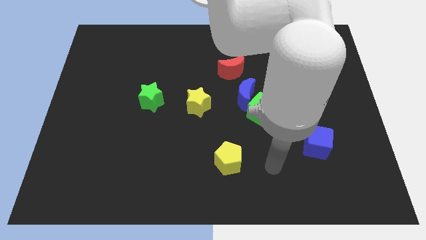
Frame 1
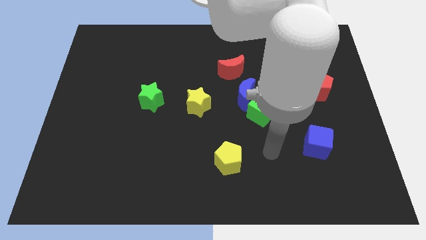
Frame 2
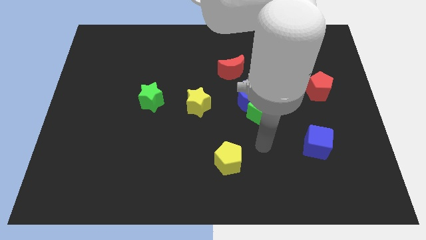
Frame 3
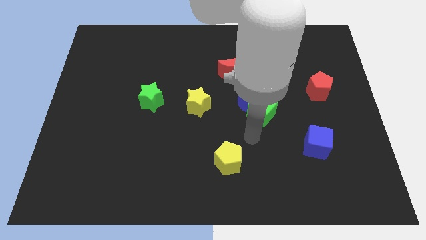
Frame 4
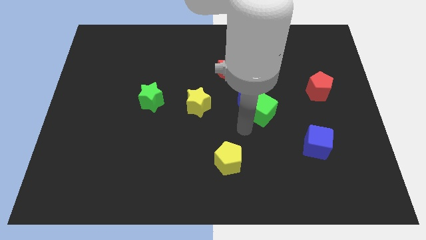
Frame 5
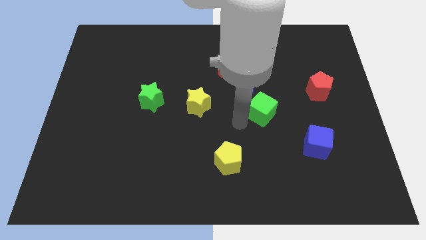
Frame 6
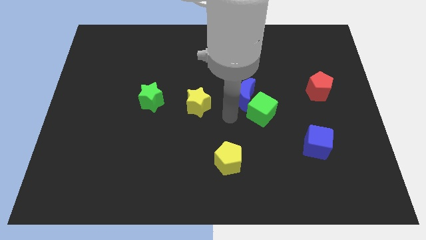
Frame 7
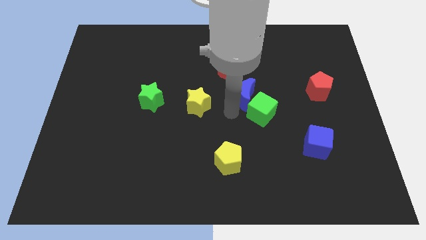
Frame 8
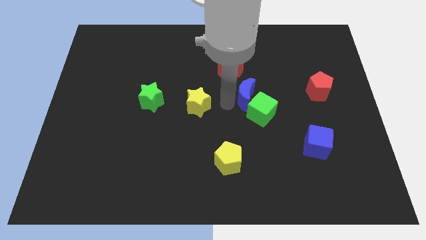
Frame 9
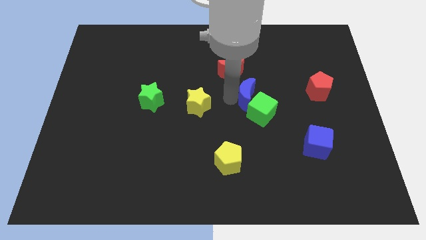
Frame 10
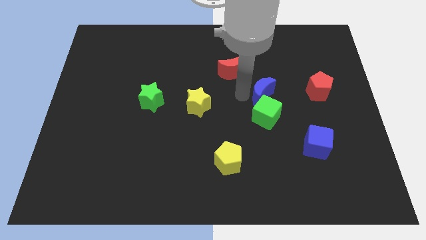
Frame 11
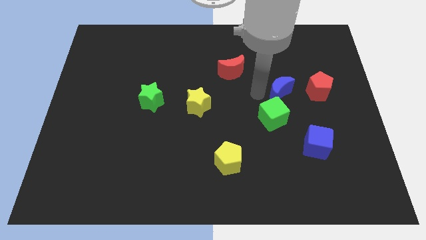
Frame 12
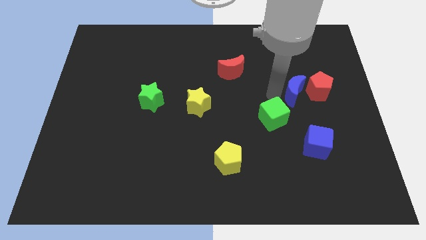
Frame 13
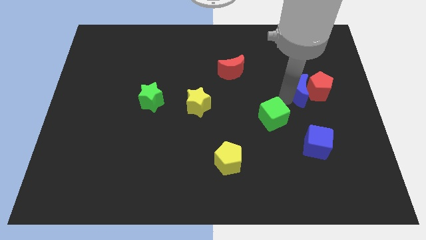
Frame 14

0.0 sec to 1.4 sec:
separate the green cube from the blue moon

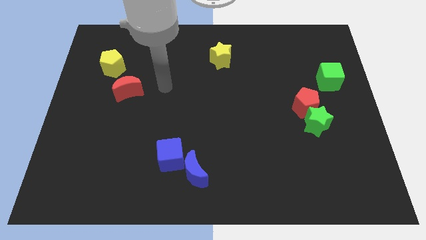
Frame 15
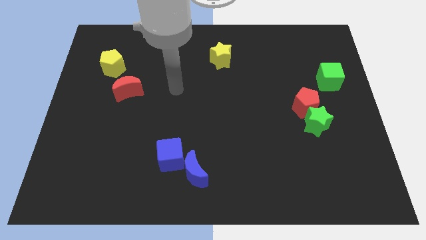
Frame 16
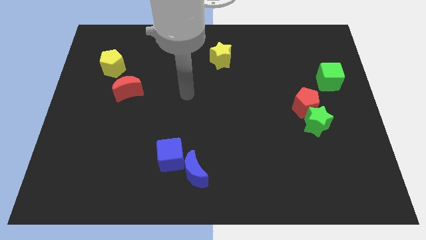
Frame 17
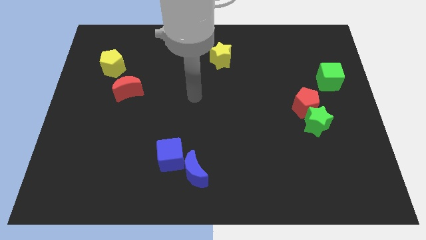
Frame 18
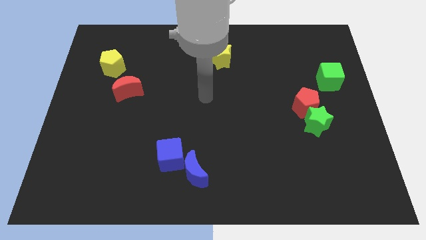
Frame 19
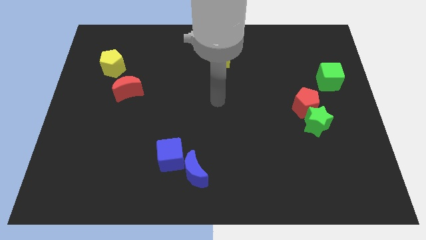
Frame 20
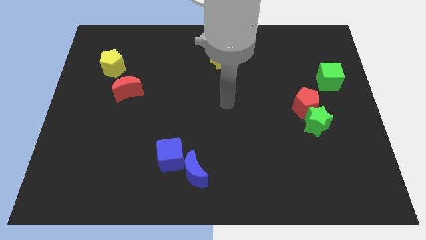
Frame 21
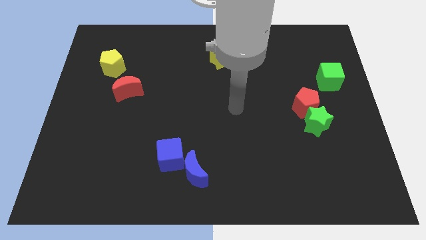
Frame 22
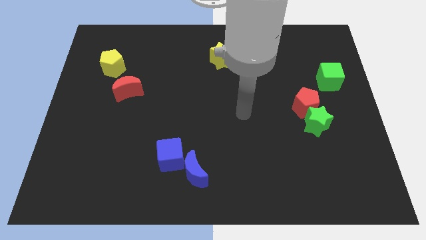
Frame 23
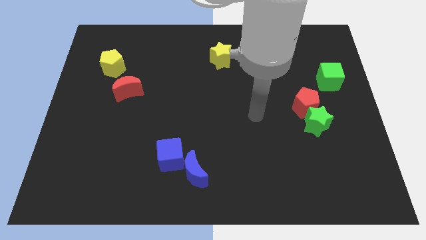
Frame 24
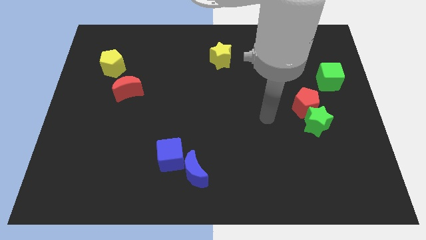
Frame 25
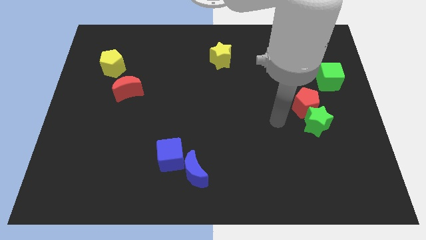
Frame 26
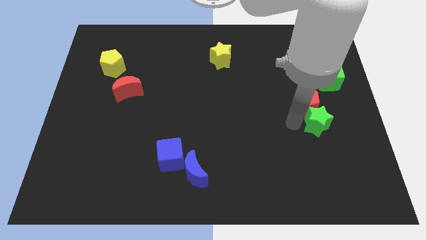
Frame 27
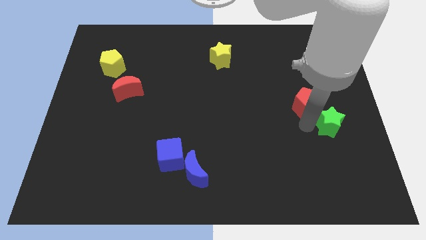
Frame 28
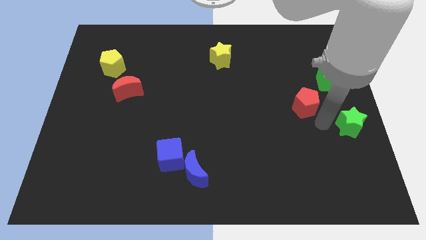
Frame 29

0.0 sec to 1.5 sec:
separate the red pentagon from the green star

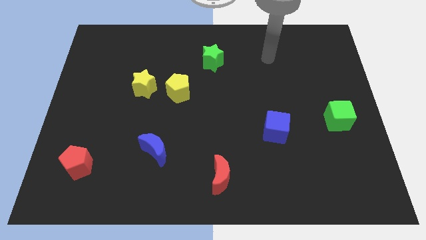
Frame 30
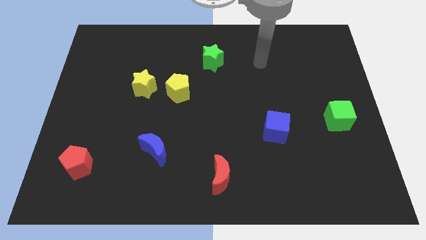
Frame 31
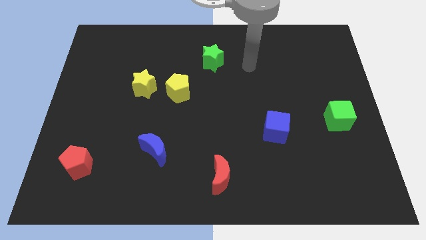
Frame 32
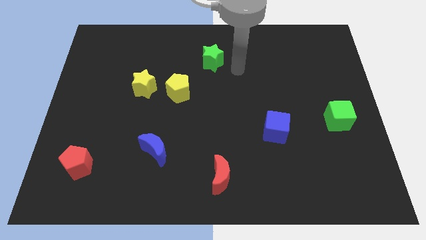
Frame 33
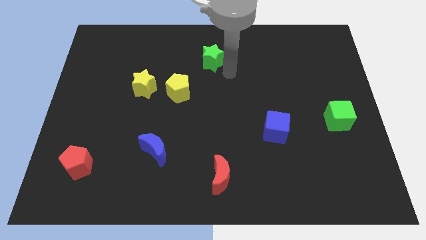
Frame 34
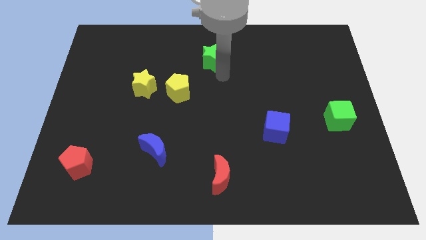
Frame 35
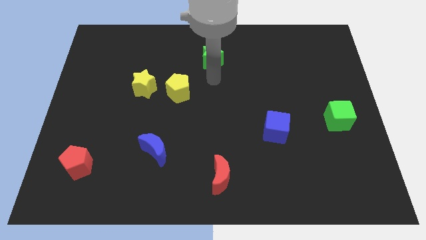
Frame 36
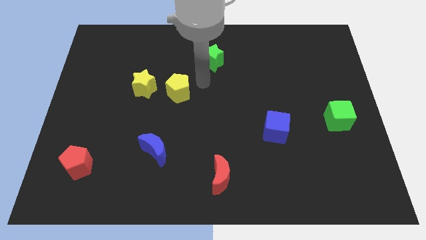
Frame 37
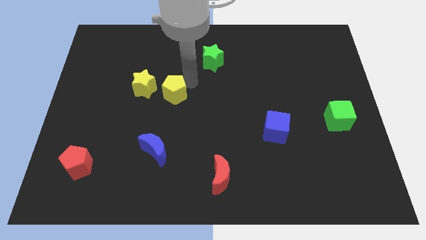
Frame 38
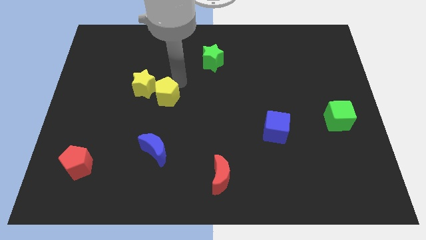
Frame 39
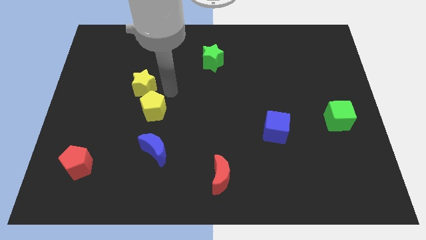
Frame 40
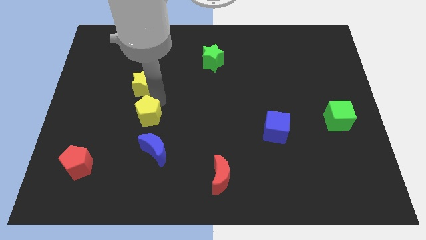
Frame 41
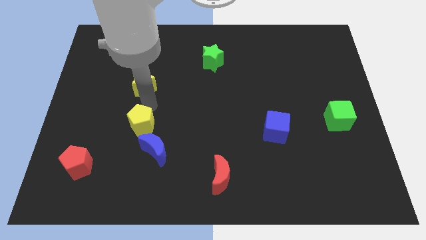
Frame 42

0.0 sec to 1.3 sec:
pull the yellow star apart from the yellow pentagon

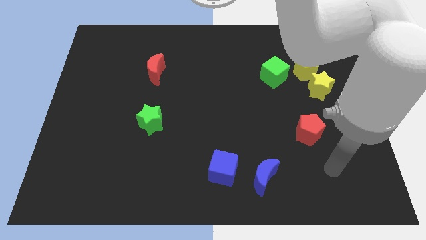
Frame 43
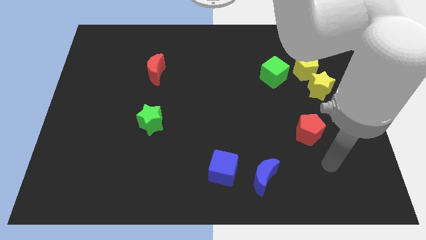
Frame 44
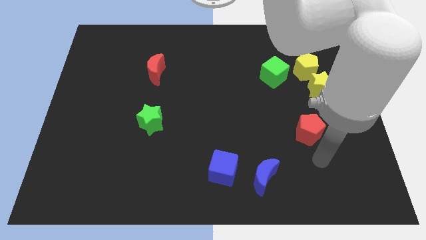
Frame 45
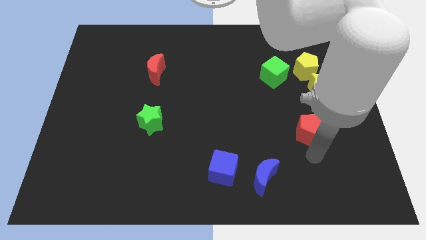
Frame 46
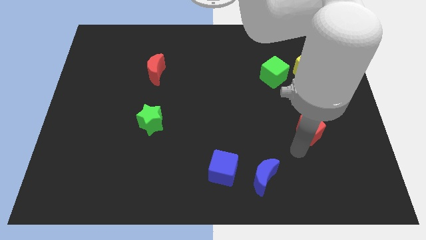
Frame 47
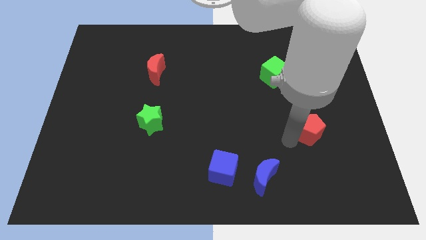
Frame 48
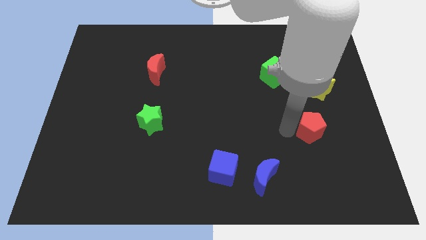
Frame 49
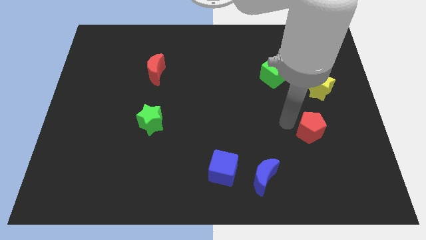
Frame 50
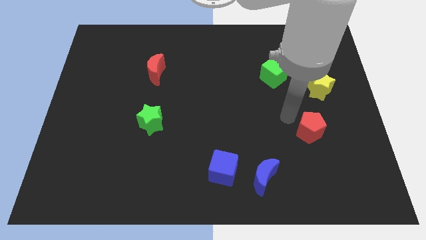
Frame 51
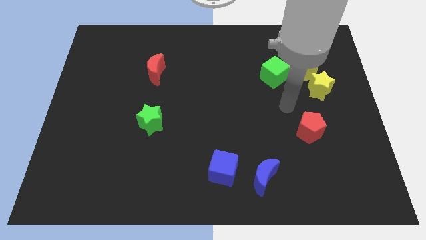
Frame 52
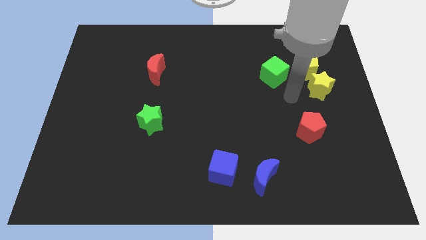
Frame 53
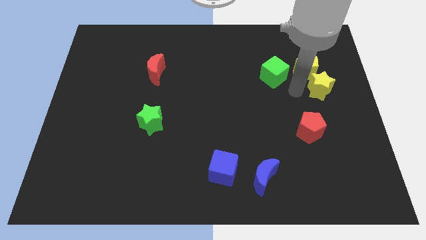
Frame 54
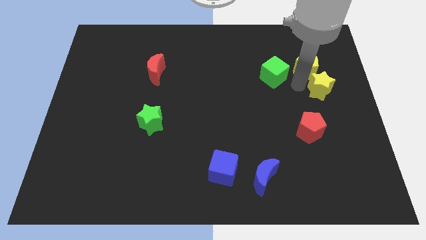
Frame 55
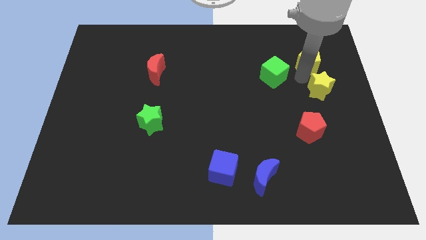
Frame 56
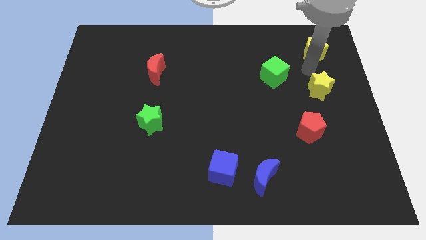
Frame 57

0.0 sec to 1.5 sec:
separate the yellow star from the yellow pentagon

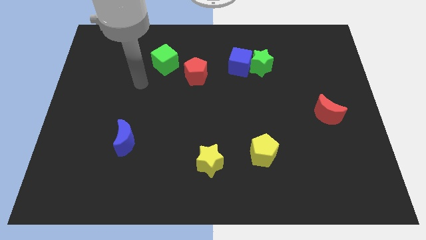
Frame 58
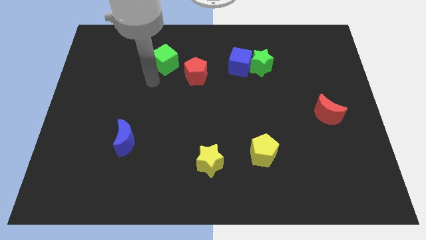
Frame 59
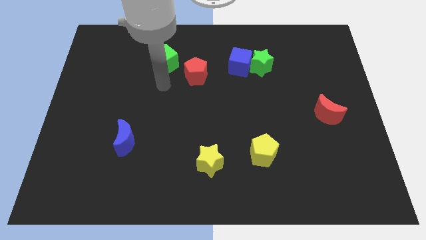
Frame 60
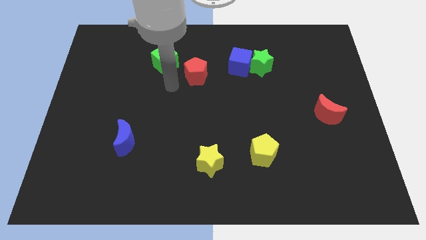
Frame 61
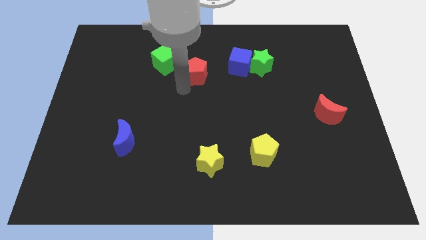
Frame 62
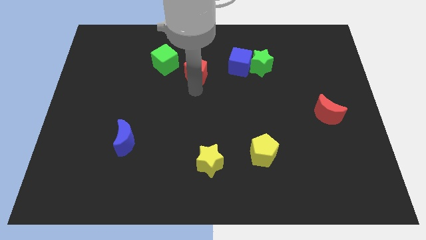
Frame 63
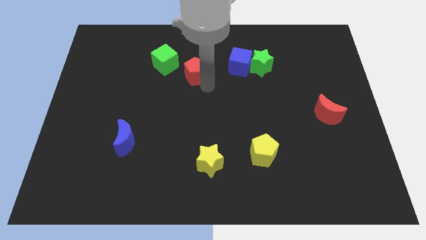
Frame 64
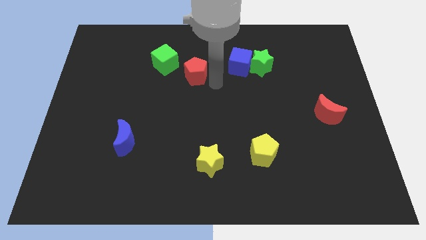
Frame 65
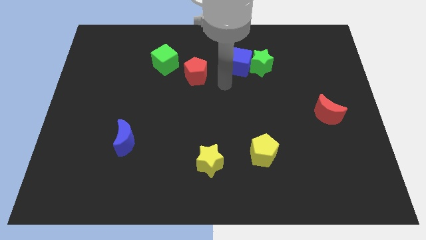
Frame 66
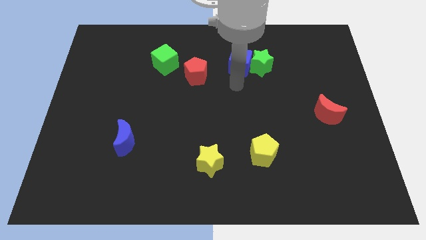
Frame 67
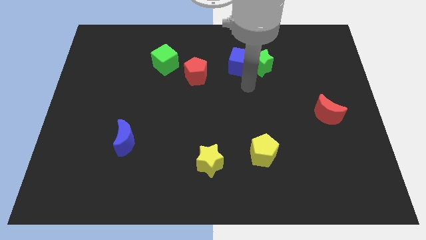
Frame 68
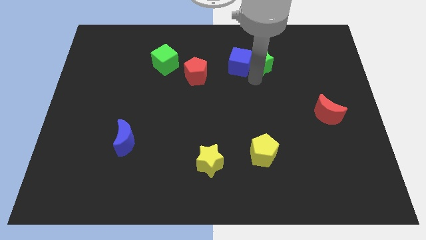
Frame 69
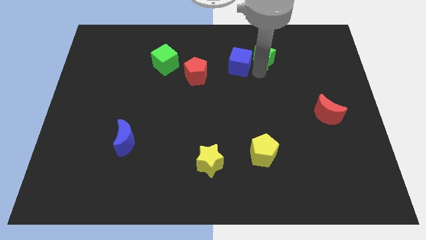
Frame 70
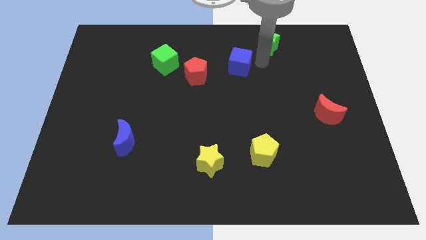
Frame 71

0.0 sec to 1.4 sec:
separate the blue cube from the green star

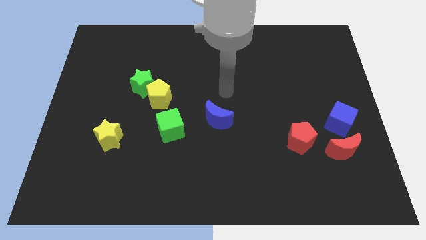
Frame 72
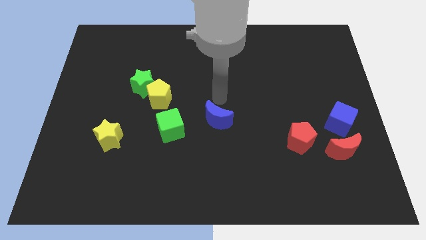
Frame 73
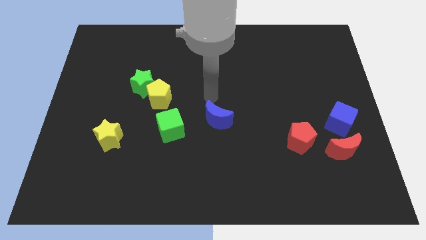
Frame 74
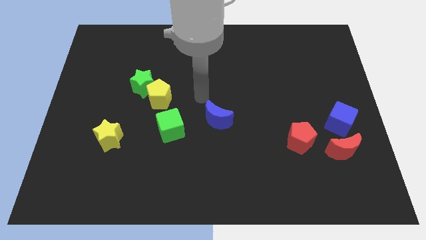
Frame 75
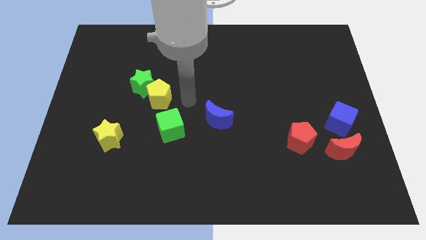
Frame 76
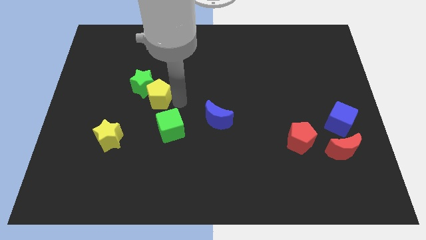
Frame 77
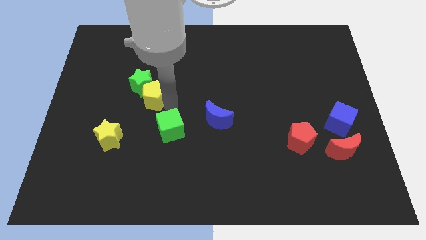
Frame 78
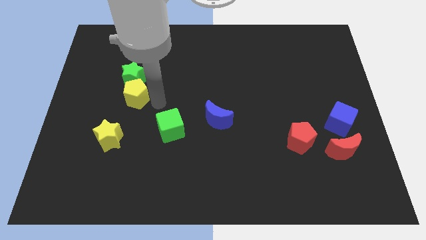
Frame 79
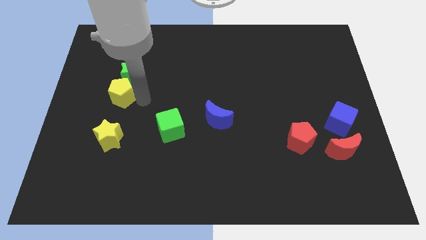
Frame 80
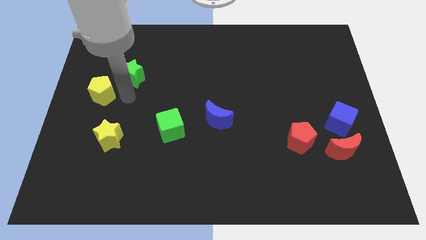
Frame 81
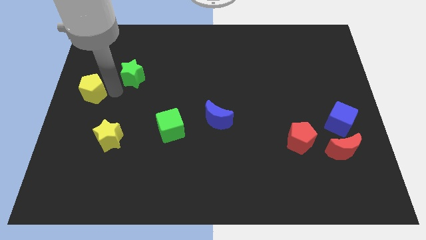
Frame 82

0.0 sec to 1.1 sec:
move the green star away from the yellow pentagon

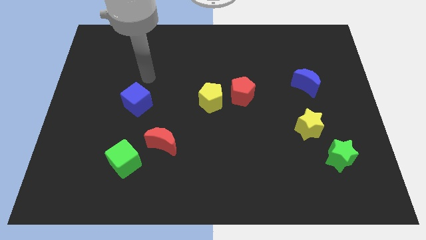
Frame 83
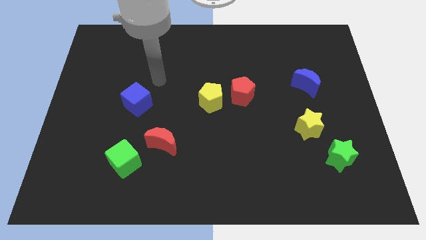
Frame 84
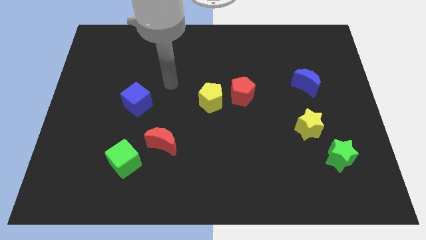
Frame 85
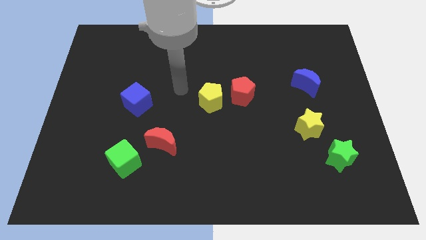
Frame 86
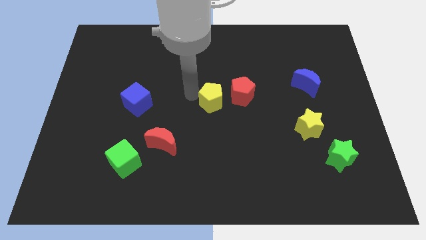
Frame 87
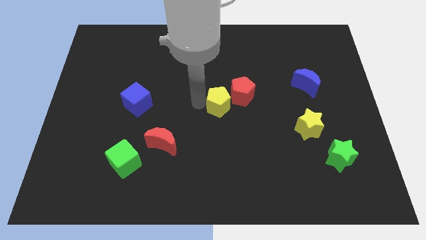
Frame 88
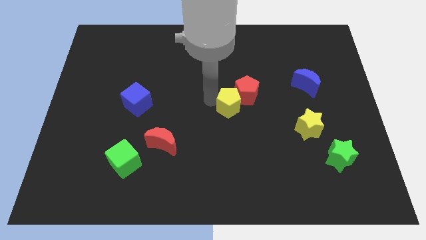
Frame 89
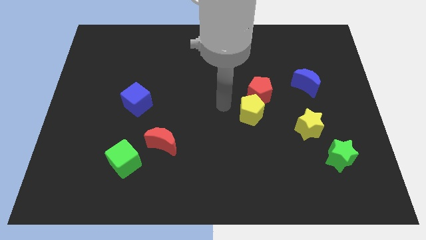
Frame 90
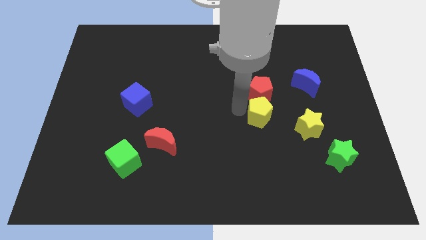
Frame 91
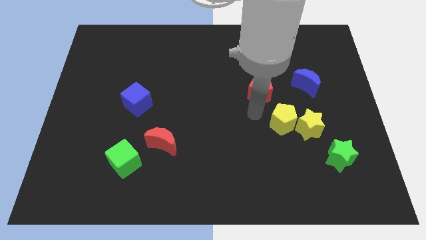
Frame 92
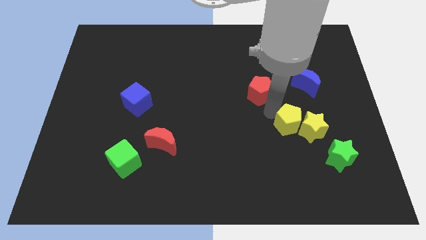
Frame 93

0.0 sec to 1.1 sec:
move the red pentagon away from the yellow pentagon

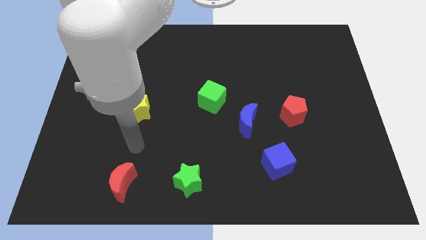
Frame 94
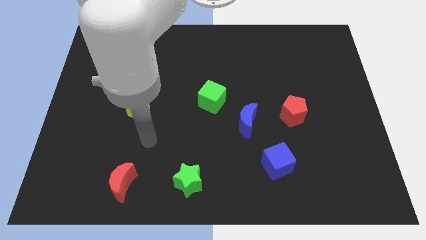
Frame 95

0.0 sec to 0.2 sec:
pull the blue moon apart from the green cube
